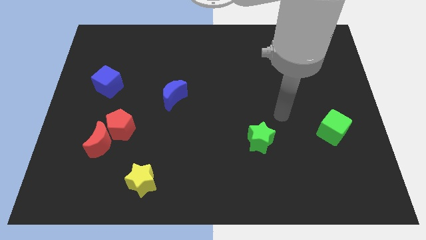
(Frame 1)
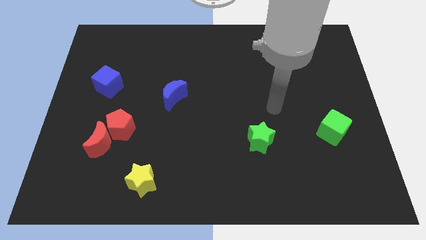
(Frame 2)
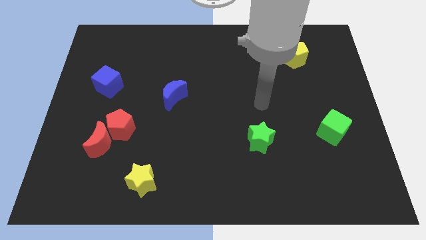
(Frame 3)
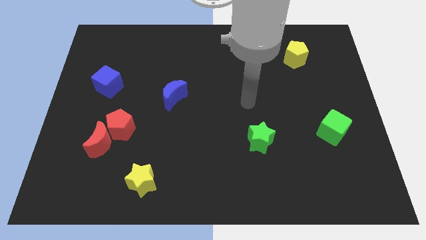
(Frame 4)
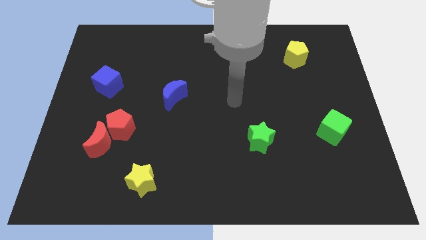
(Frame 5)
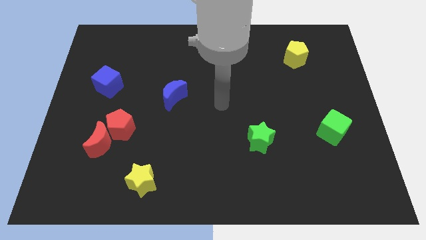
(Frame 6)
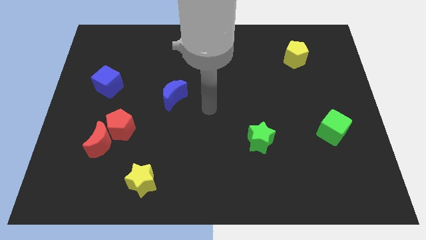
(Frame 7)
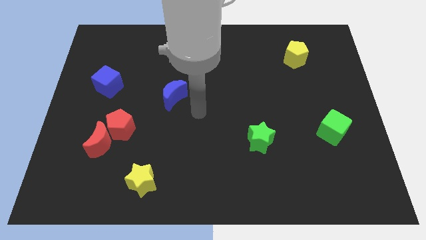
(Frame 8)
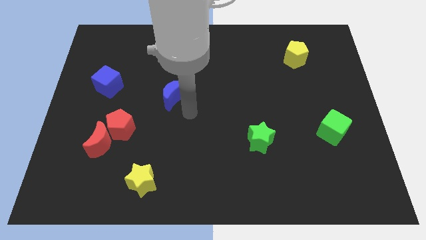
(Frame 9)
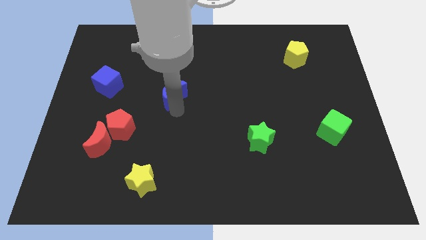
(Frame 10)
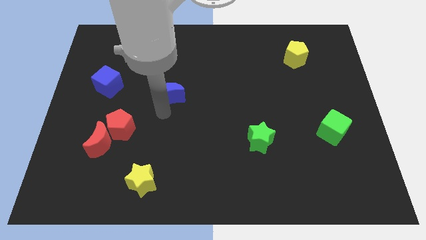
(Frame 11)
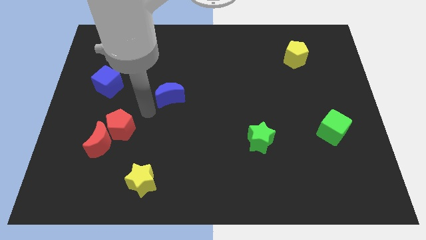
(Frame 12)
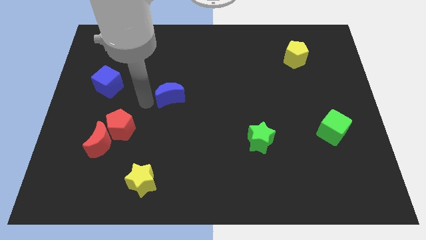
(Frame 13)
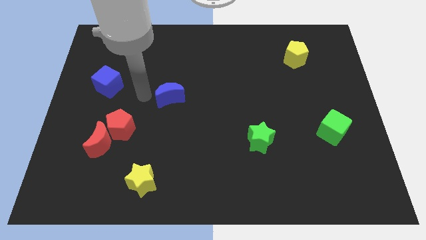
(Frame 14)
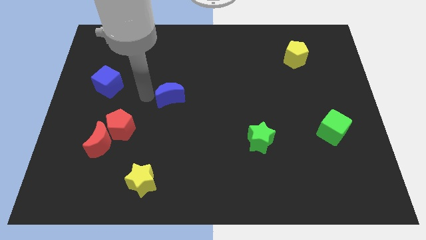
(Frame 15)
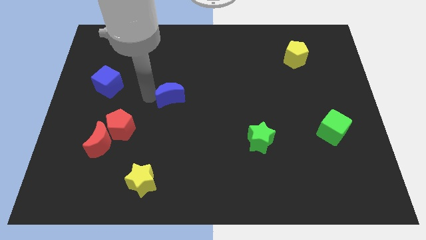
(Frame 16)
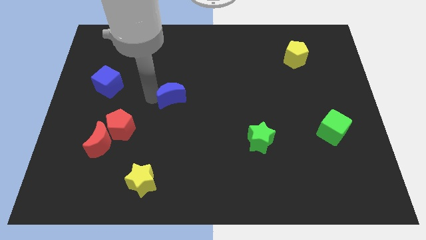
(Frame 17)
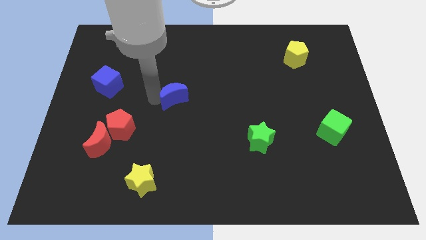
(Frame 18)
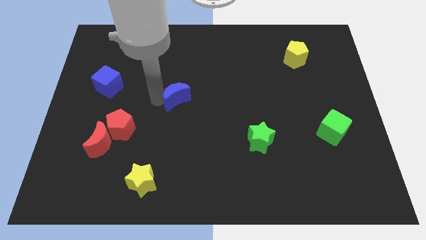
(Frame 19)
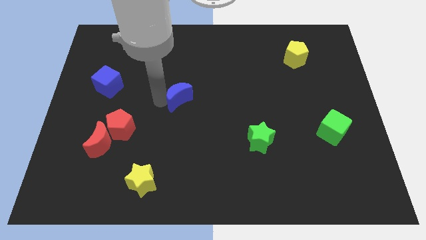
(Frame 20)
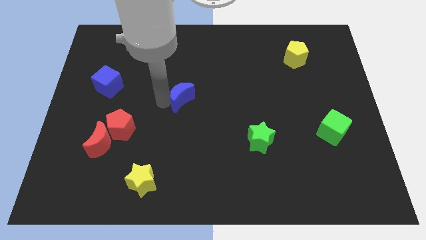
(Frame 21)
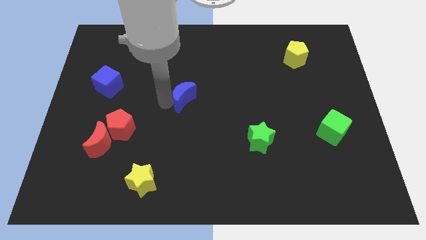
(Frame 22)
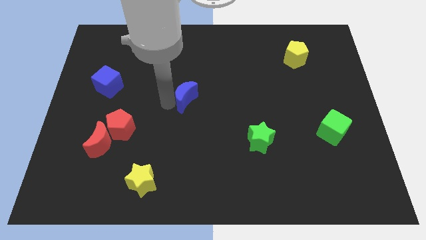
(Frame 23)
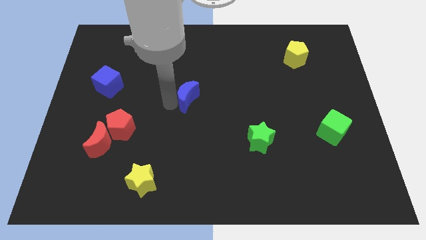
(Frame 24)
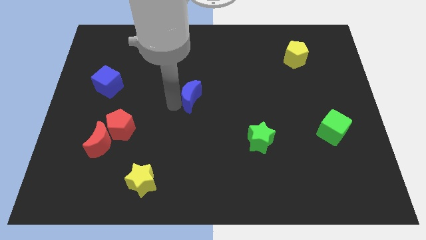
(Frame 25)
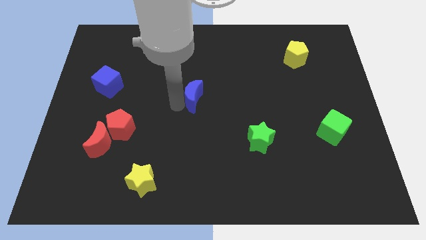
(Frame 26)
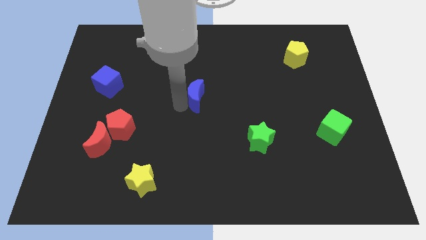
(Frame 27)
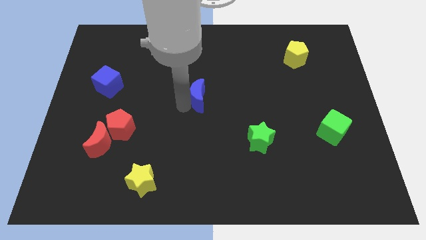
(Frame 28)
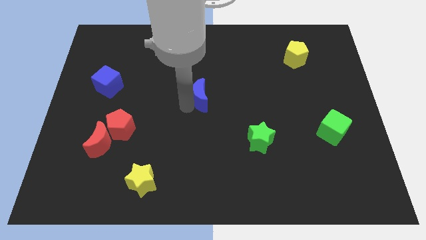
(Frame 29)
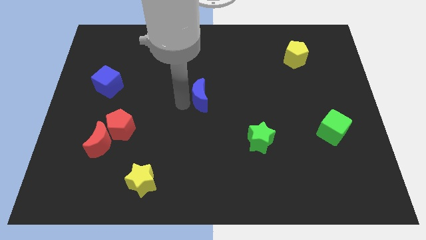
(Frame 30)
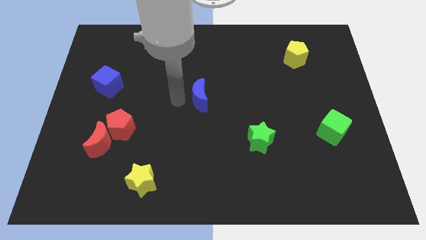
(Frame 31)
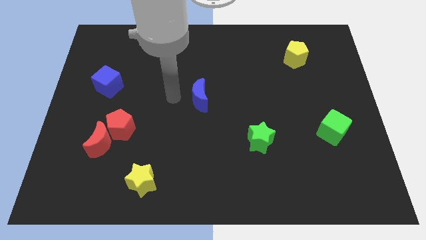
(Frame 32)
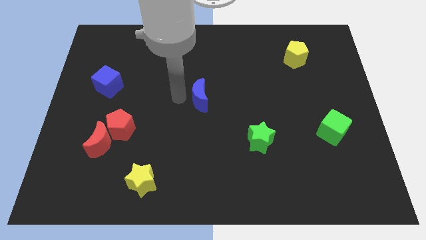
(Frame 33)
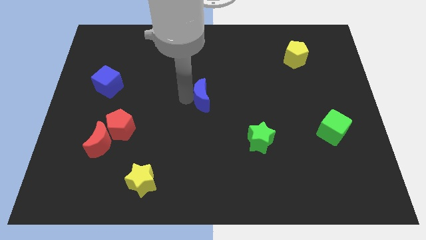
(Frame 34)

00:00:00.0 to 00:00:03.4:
move the blue moon a little to the right

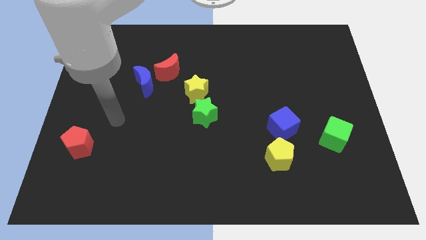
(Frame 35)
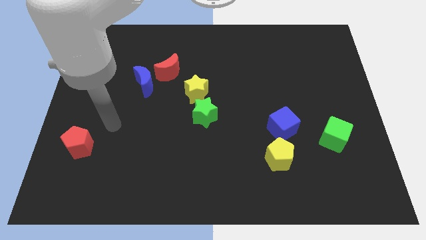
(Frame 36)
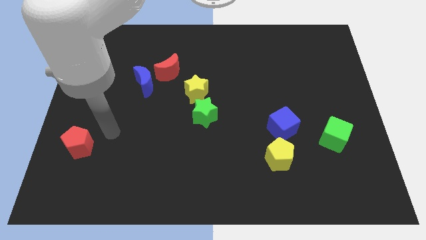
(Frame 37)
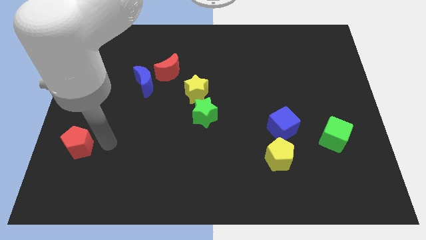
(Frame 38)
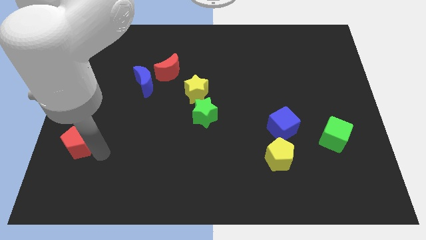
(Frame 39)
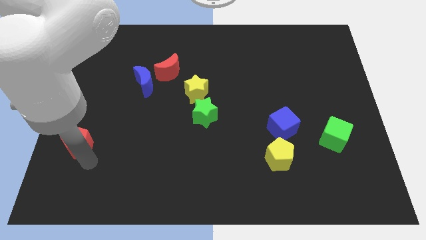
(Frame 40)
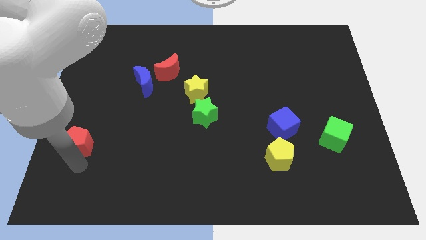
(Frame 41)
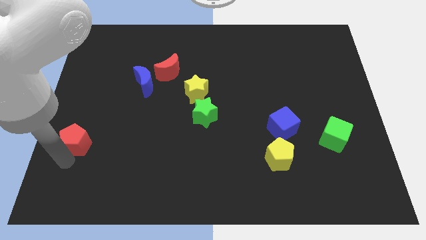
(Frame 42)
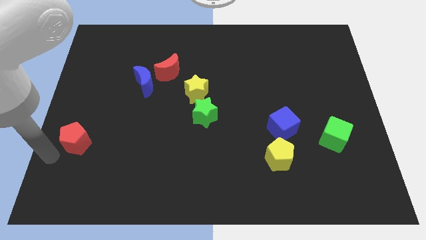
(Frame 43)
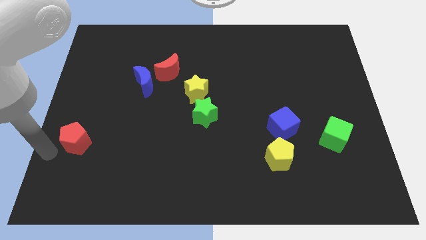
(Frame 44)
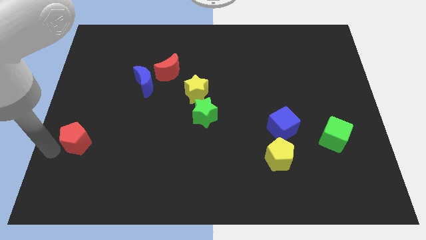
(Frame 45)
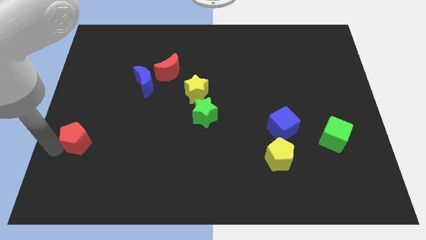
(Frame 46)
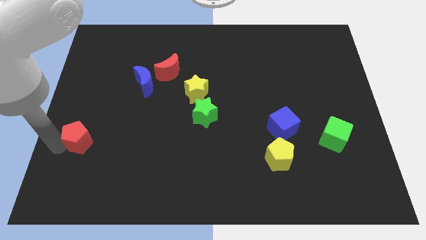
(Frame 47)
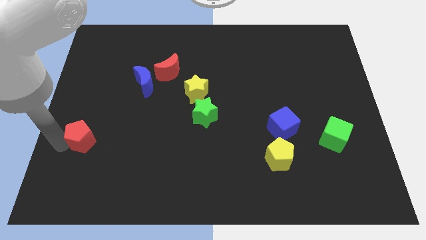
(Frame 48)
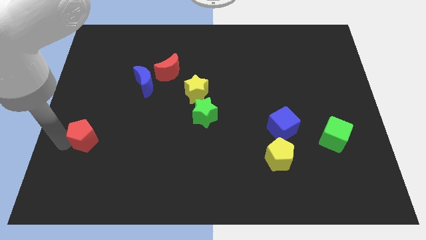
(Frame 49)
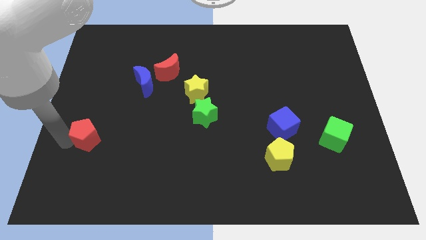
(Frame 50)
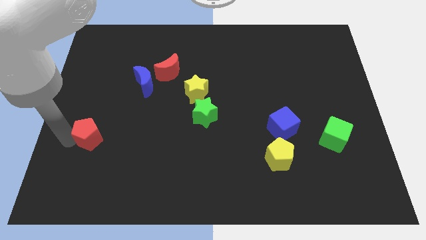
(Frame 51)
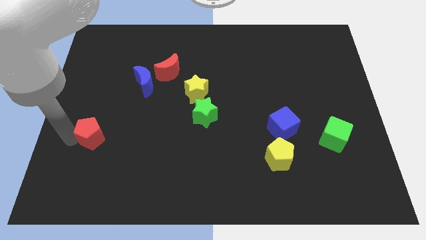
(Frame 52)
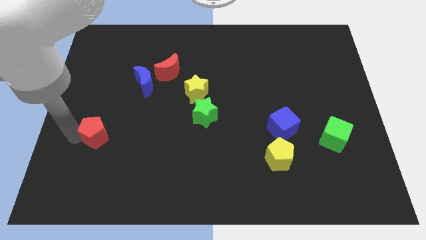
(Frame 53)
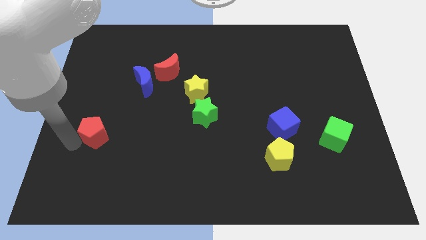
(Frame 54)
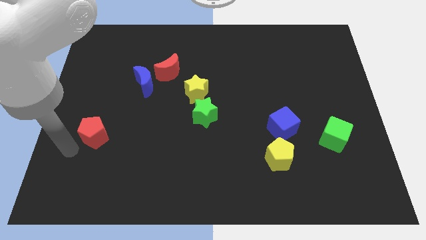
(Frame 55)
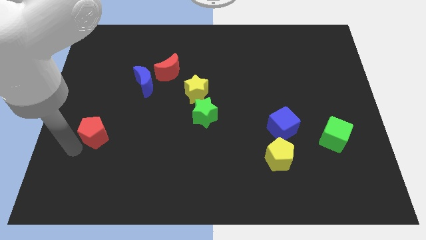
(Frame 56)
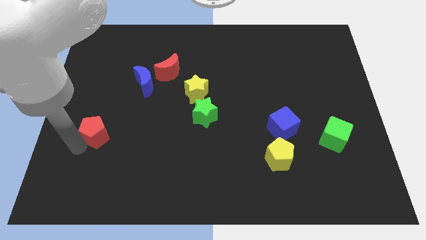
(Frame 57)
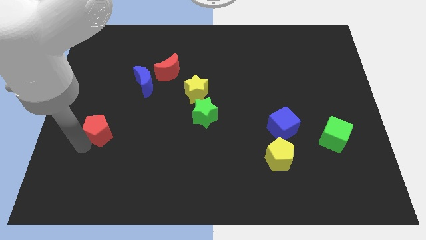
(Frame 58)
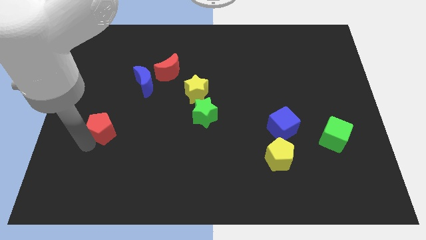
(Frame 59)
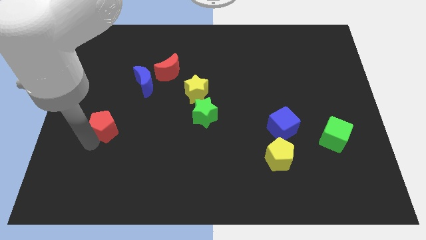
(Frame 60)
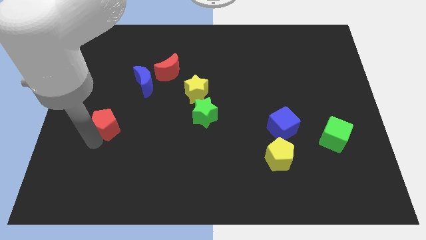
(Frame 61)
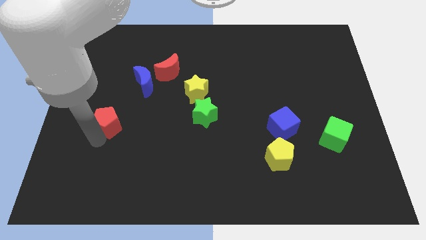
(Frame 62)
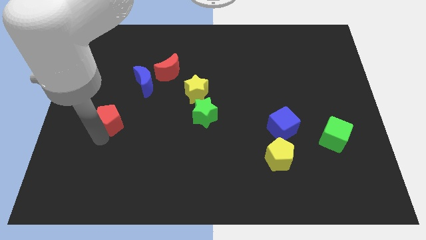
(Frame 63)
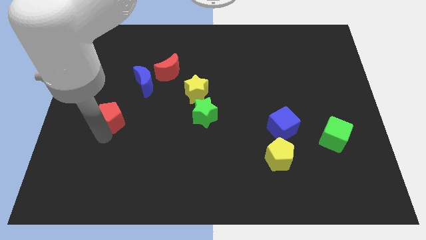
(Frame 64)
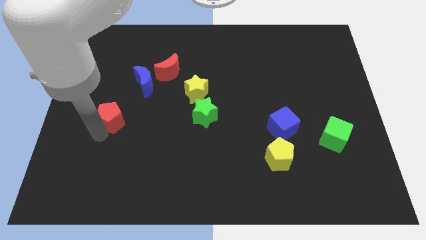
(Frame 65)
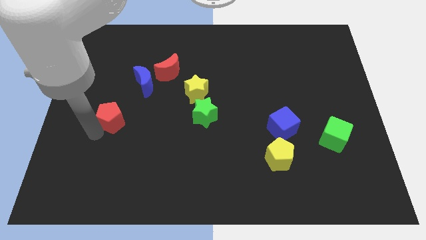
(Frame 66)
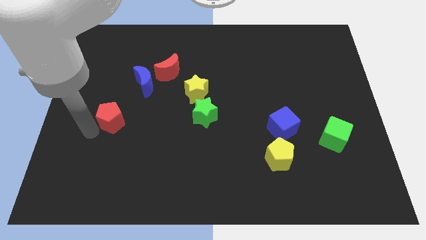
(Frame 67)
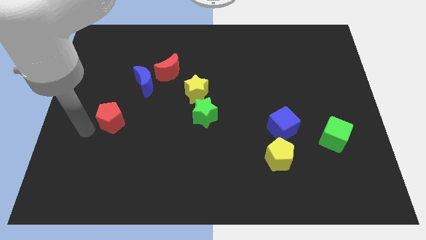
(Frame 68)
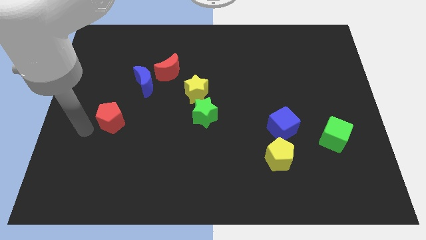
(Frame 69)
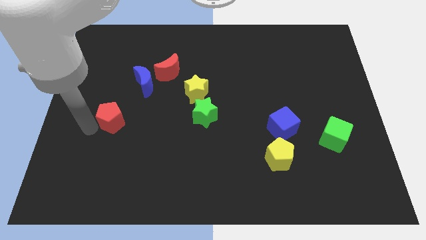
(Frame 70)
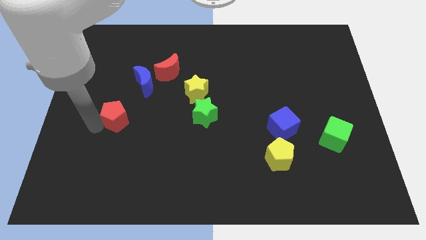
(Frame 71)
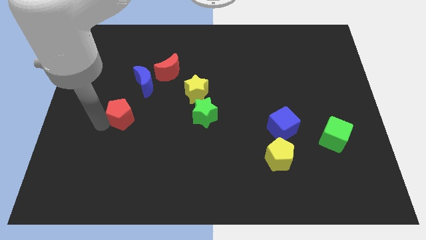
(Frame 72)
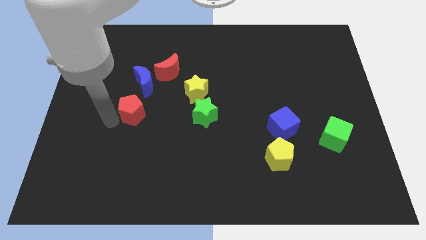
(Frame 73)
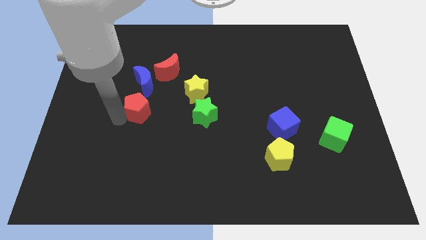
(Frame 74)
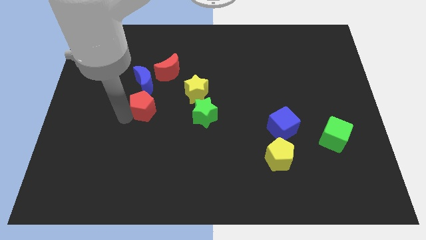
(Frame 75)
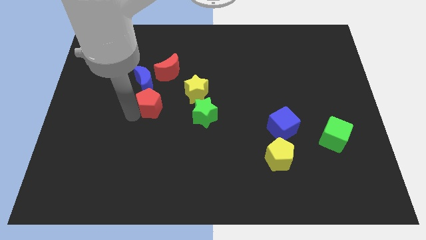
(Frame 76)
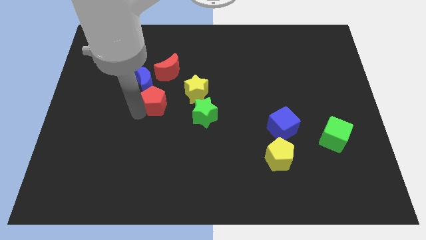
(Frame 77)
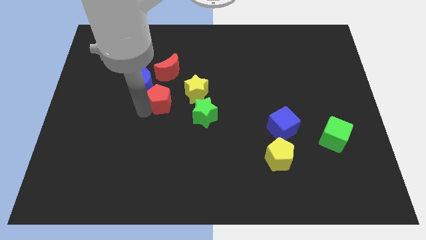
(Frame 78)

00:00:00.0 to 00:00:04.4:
move the red pentagon upwards and then right

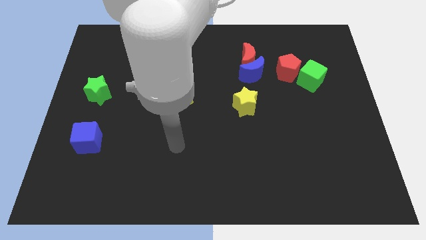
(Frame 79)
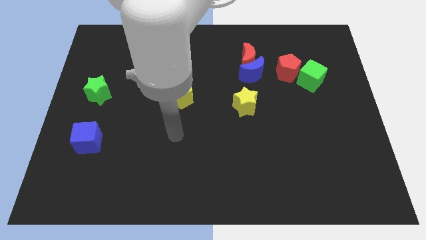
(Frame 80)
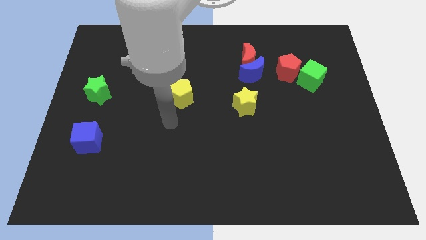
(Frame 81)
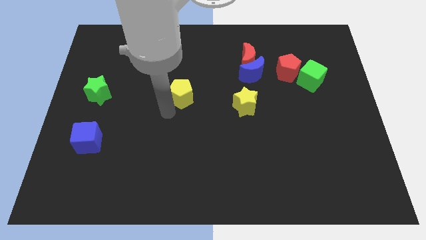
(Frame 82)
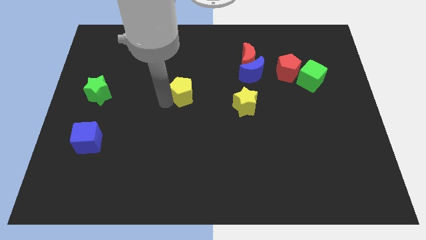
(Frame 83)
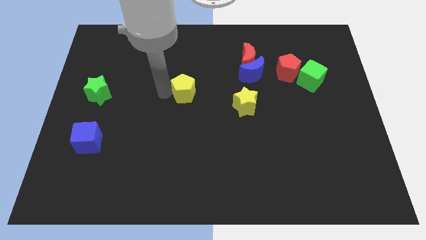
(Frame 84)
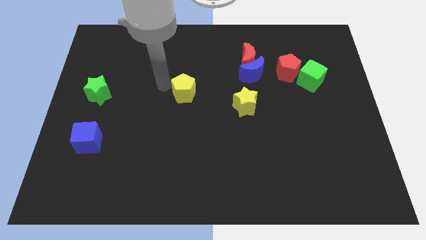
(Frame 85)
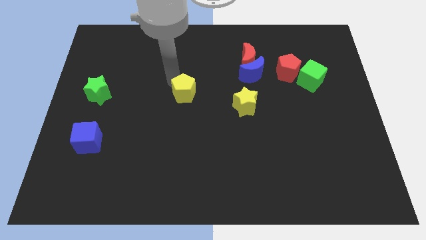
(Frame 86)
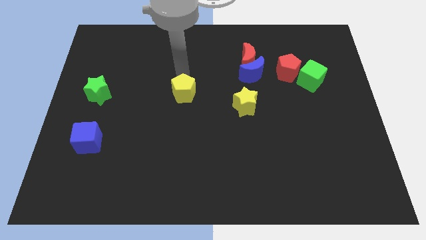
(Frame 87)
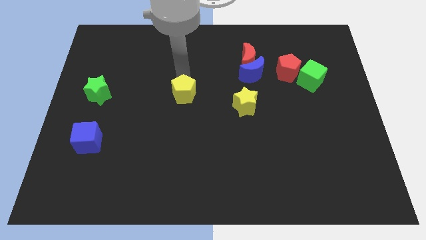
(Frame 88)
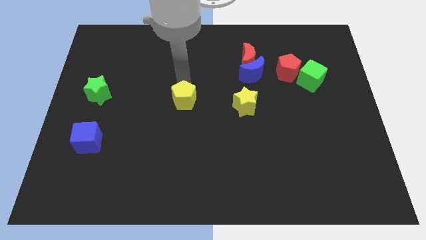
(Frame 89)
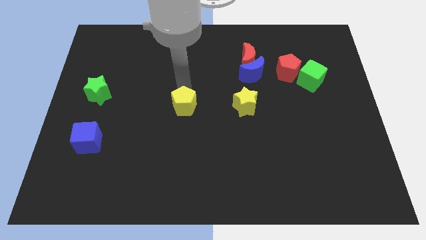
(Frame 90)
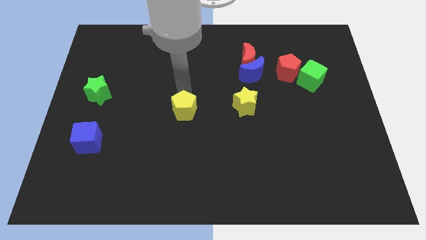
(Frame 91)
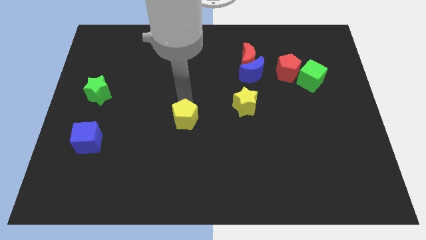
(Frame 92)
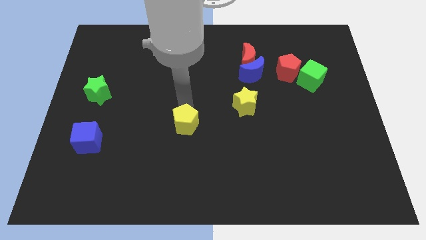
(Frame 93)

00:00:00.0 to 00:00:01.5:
push the yellow pentagon somewhat down
